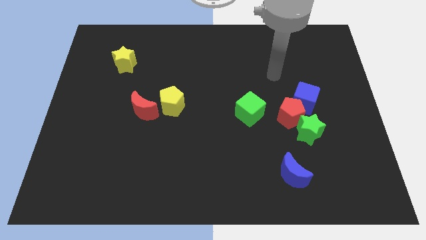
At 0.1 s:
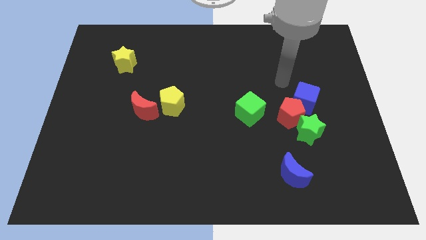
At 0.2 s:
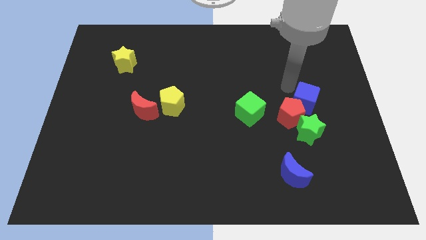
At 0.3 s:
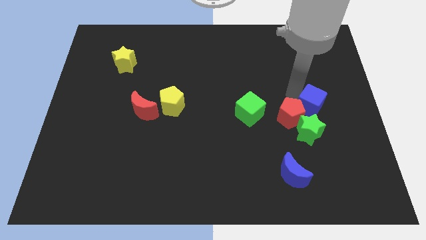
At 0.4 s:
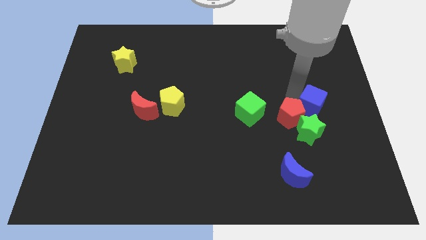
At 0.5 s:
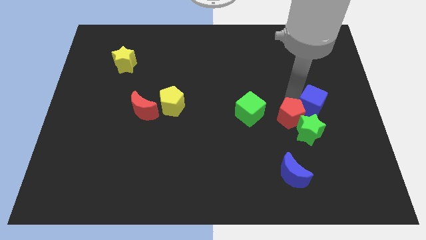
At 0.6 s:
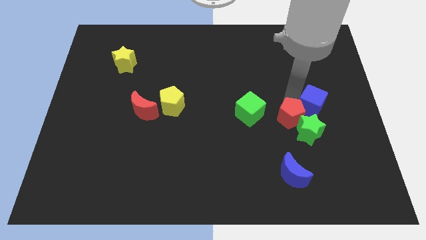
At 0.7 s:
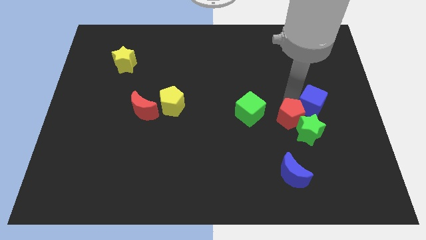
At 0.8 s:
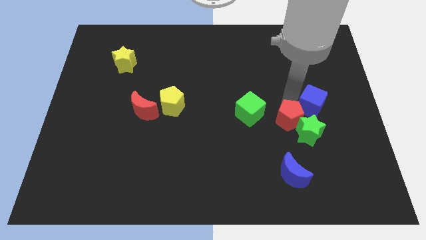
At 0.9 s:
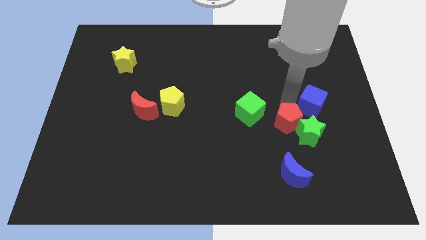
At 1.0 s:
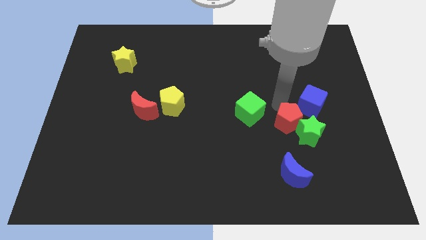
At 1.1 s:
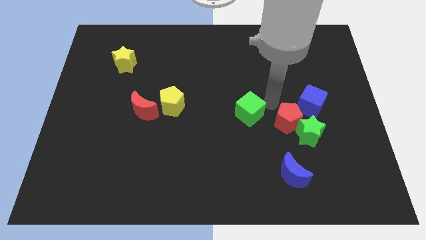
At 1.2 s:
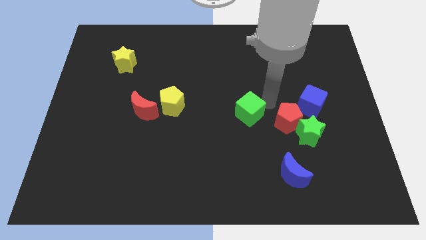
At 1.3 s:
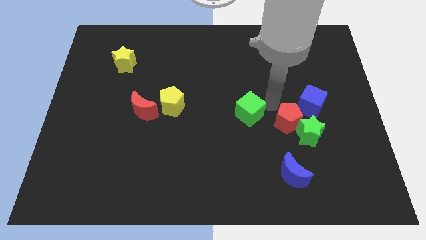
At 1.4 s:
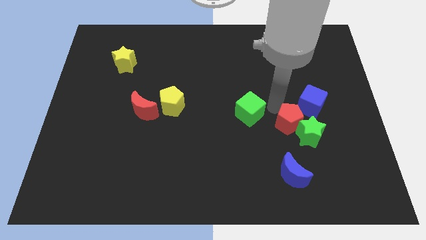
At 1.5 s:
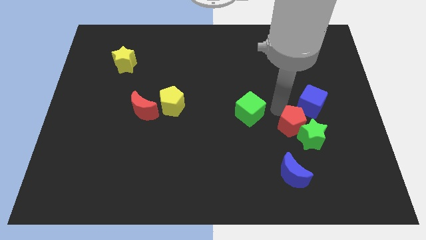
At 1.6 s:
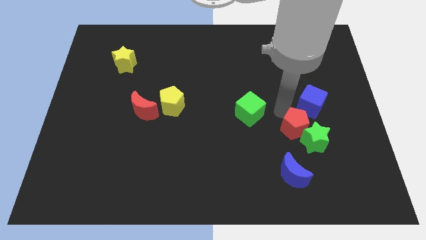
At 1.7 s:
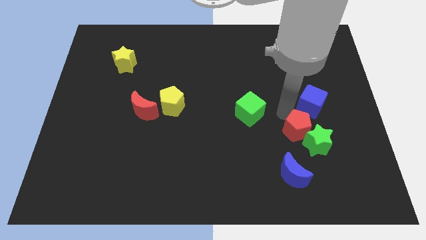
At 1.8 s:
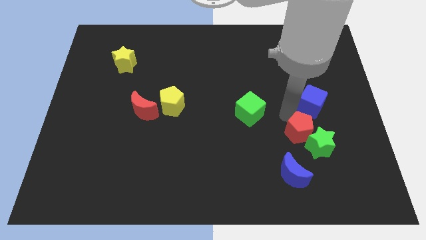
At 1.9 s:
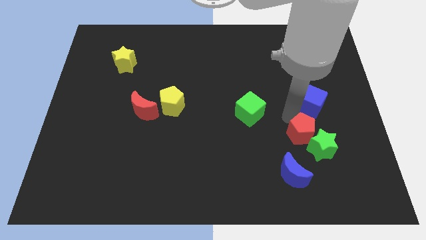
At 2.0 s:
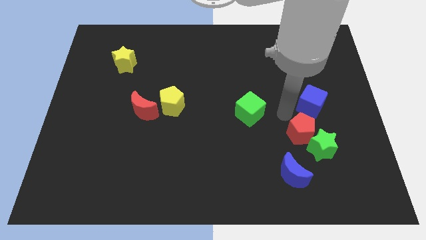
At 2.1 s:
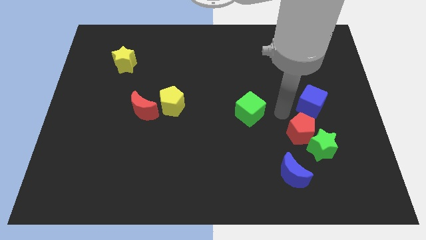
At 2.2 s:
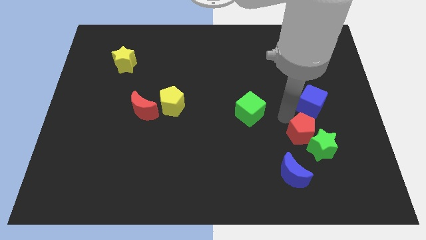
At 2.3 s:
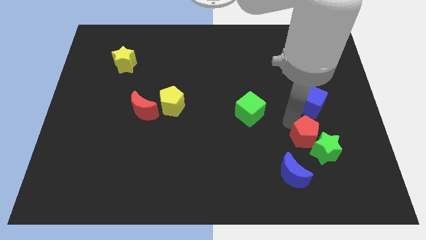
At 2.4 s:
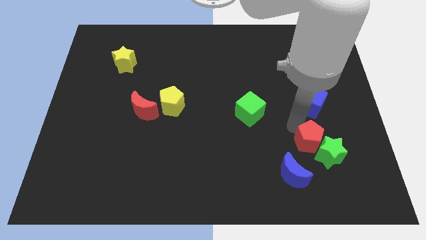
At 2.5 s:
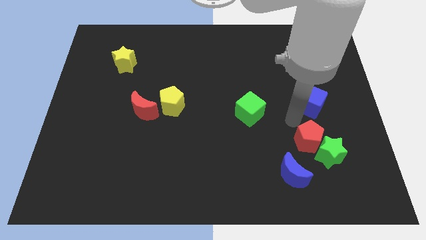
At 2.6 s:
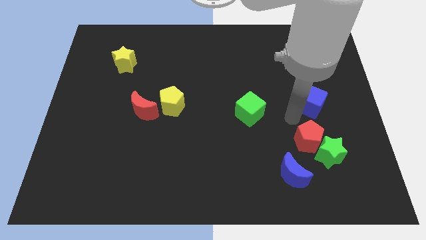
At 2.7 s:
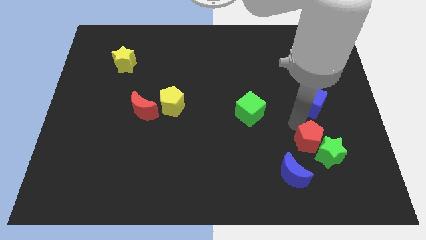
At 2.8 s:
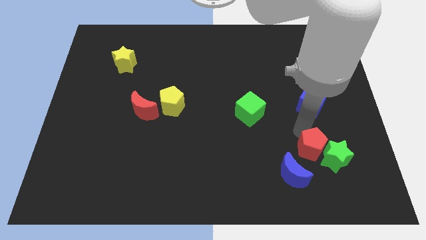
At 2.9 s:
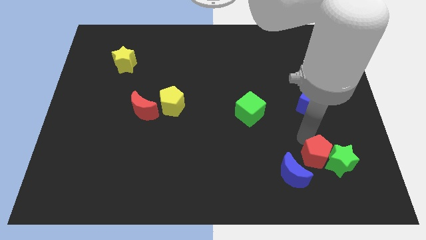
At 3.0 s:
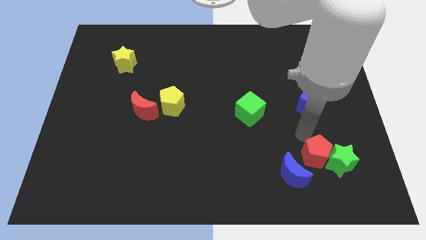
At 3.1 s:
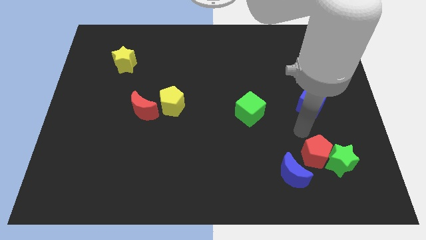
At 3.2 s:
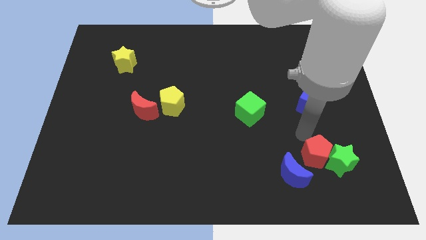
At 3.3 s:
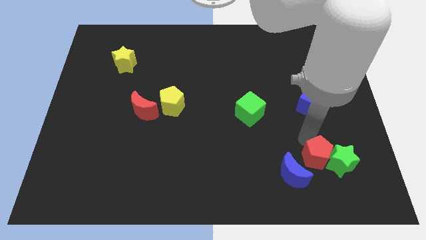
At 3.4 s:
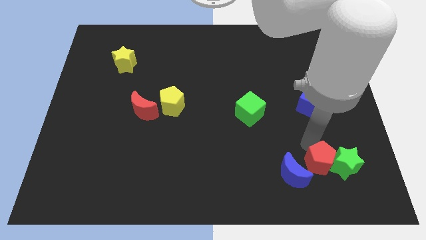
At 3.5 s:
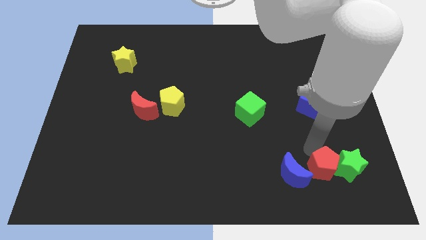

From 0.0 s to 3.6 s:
pull the red pentagon apart from the group

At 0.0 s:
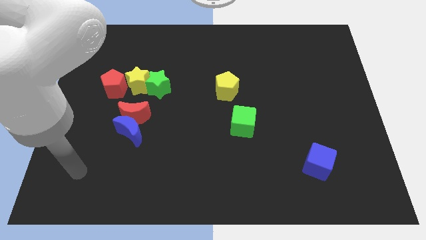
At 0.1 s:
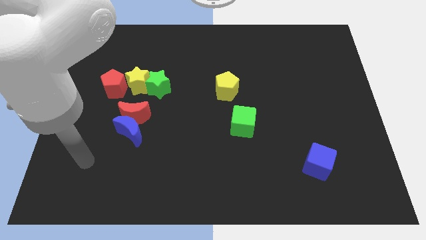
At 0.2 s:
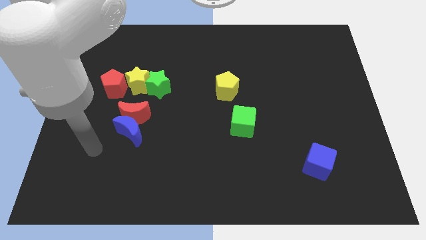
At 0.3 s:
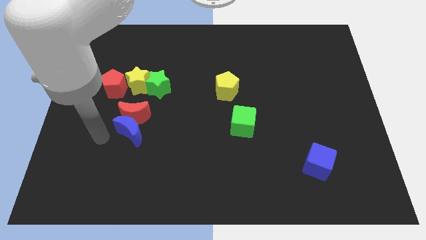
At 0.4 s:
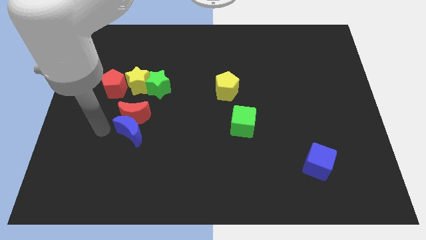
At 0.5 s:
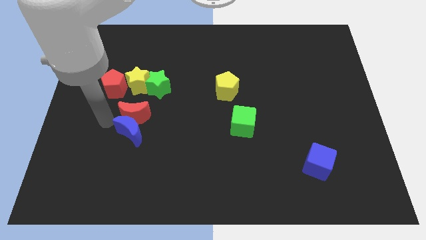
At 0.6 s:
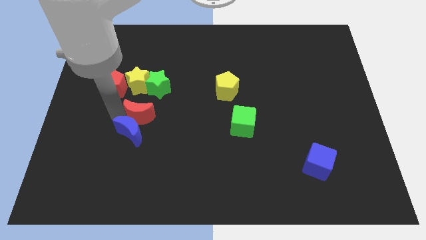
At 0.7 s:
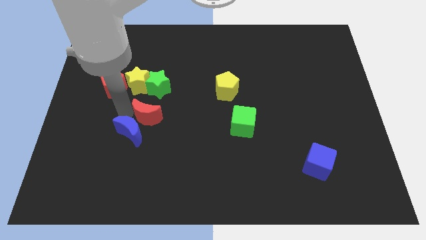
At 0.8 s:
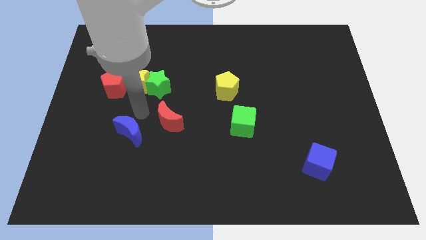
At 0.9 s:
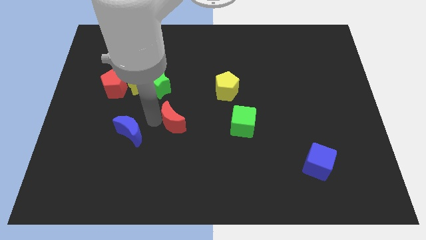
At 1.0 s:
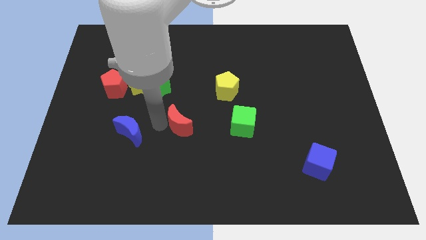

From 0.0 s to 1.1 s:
pull the blue moon apart from the red moon

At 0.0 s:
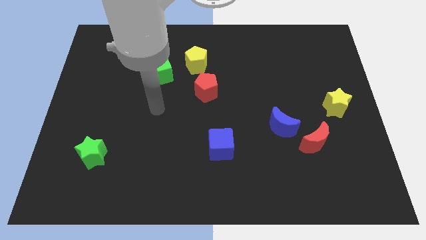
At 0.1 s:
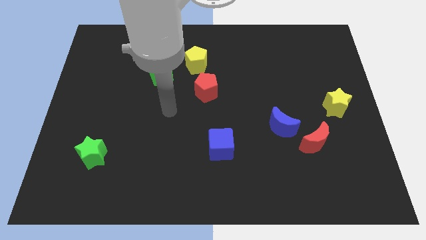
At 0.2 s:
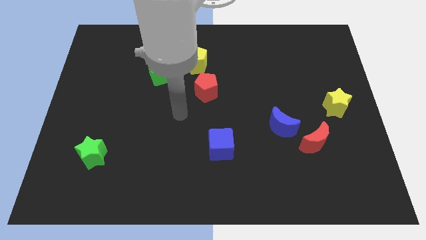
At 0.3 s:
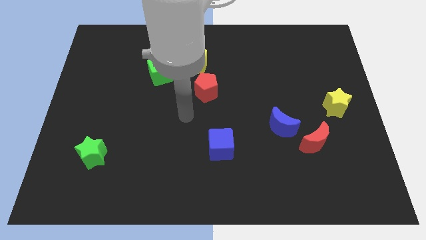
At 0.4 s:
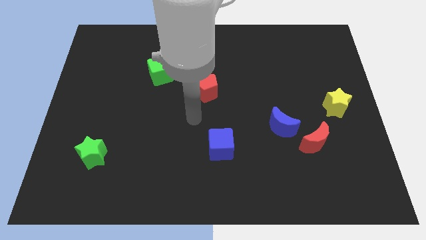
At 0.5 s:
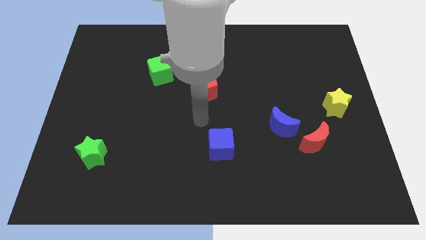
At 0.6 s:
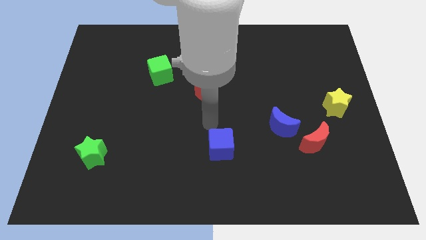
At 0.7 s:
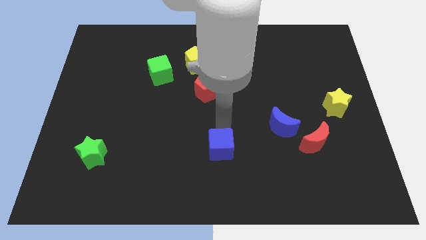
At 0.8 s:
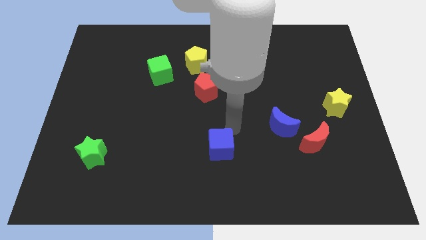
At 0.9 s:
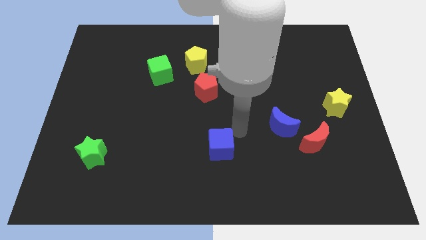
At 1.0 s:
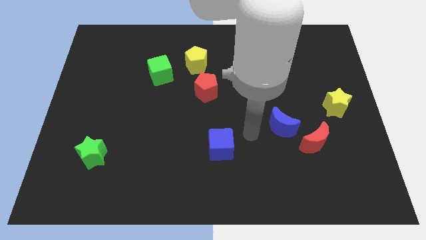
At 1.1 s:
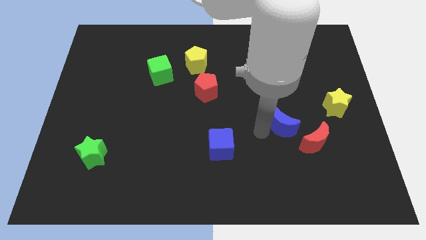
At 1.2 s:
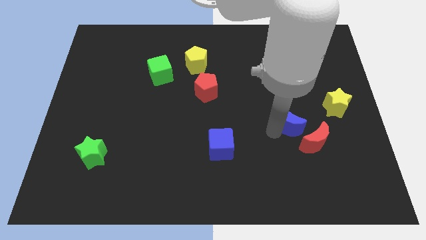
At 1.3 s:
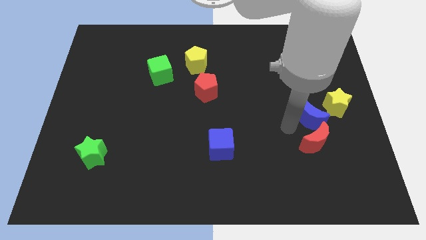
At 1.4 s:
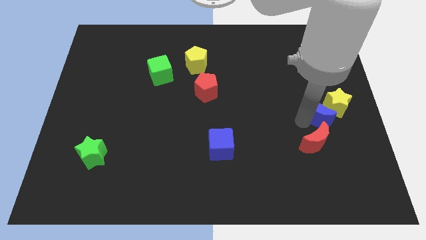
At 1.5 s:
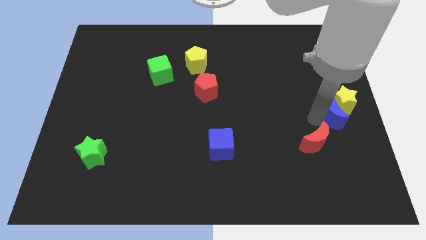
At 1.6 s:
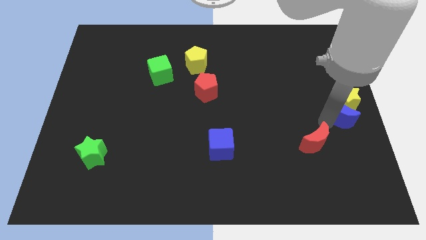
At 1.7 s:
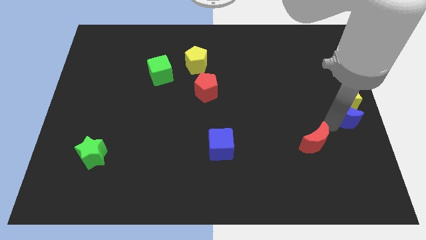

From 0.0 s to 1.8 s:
separate the red moon from the blue moon

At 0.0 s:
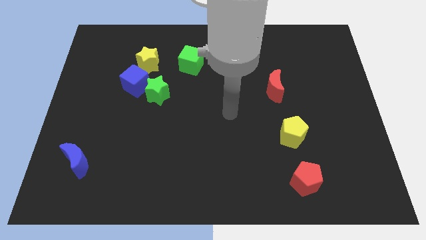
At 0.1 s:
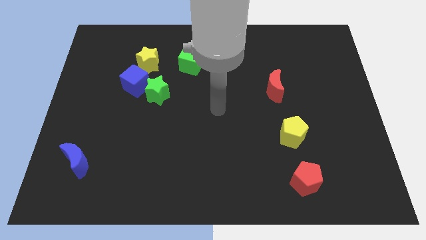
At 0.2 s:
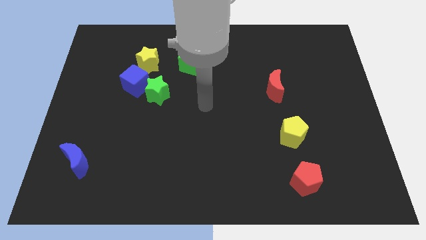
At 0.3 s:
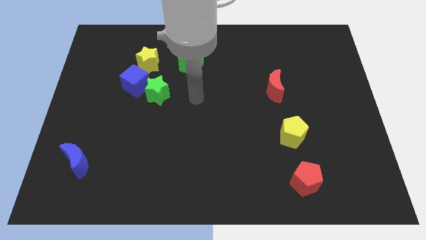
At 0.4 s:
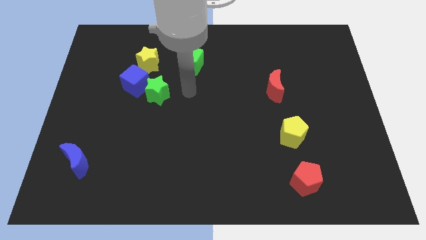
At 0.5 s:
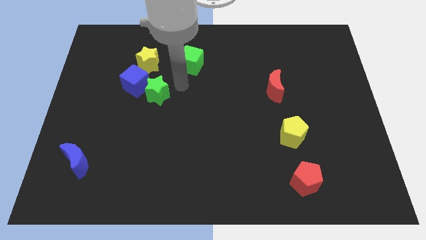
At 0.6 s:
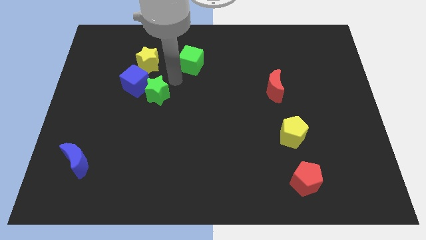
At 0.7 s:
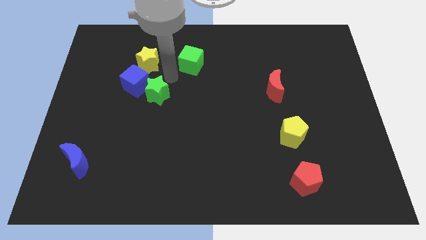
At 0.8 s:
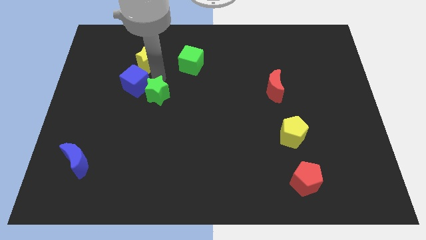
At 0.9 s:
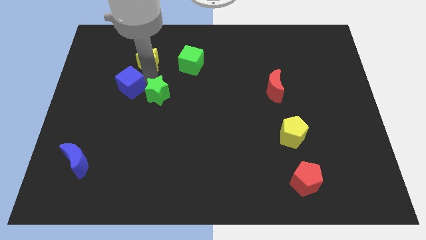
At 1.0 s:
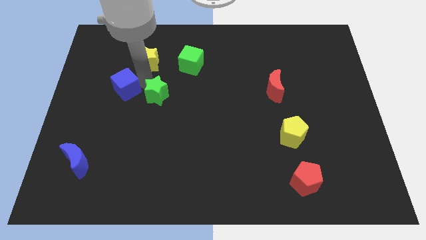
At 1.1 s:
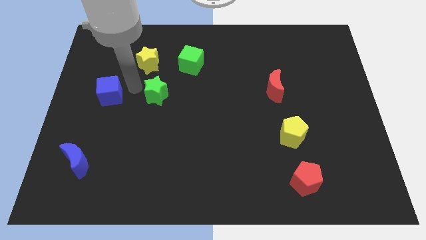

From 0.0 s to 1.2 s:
separate the green star from the blue cube

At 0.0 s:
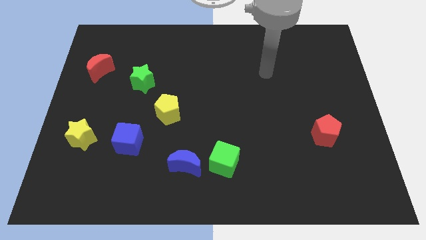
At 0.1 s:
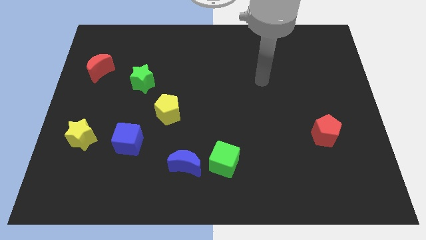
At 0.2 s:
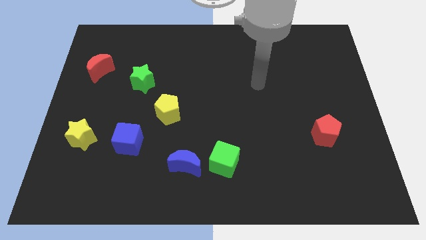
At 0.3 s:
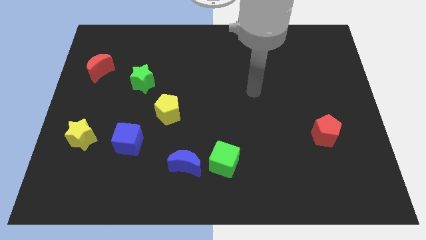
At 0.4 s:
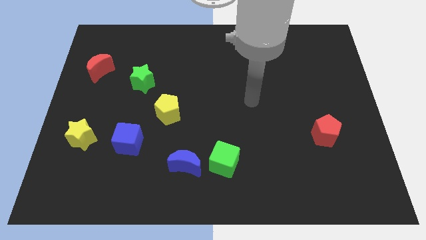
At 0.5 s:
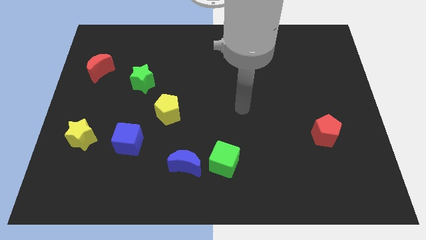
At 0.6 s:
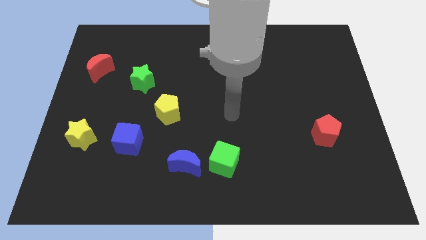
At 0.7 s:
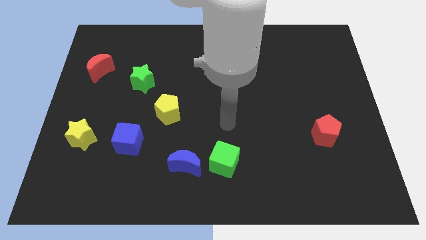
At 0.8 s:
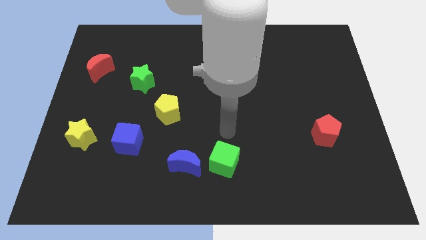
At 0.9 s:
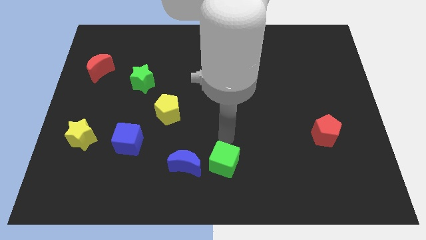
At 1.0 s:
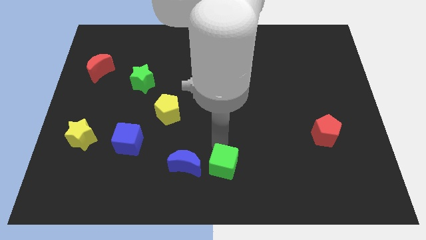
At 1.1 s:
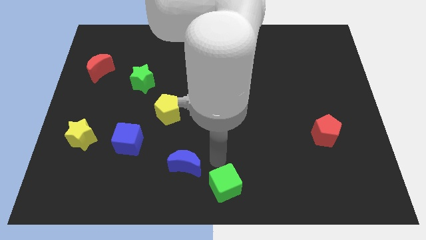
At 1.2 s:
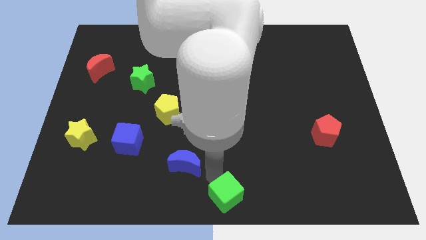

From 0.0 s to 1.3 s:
pull the blue moon apart from the green cube

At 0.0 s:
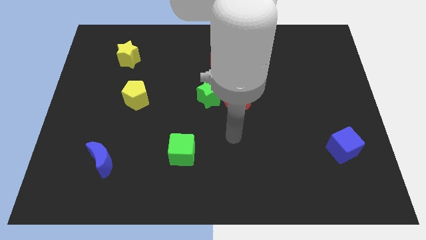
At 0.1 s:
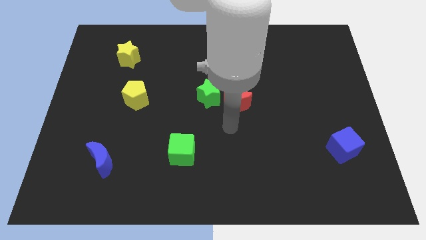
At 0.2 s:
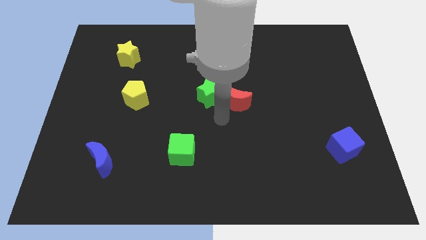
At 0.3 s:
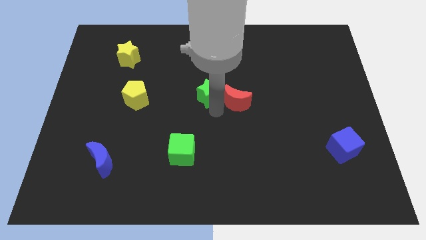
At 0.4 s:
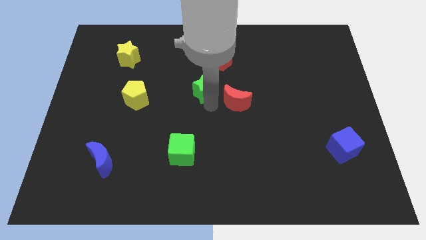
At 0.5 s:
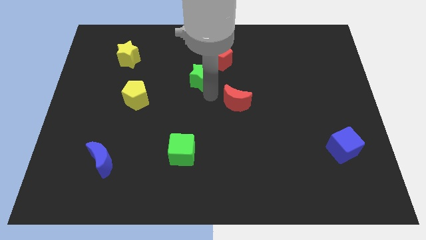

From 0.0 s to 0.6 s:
separate the red moon from the green star
